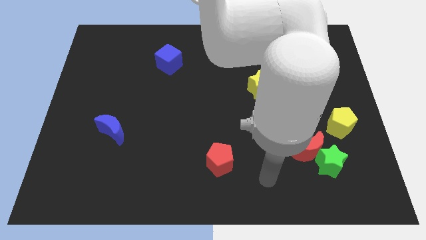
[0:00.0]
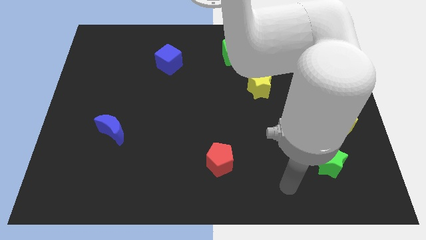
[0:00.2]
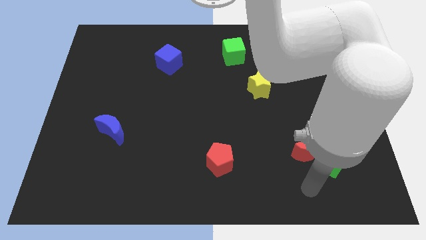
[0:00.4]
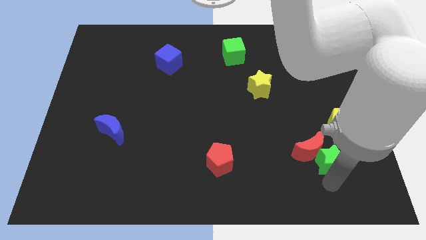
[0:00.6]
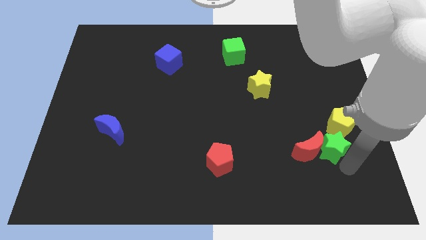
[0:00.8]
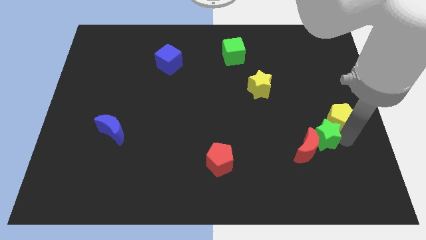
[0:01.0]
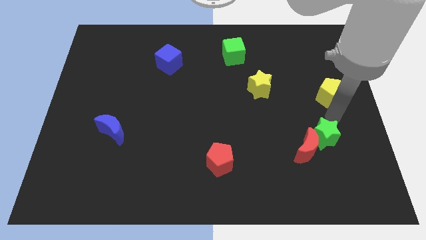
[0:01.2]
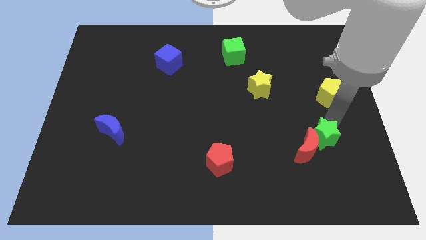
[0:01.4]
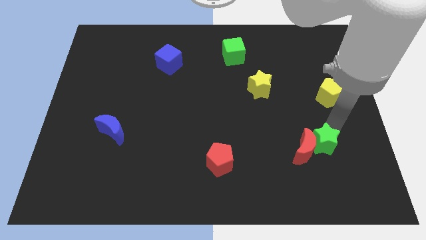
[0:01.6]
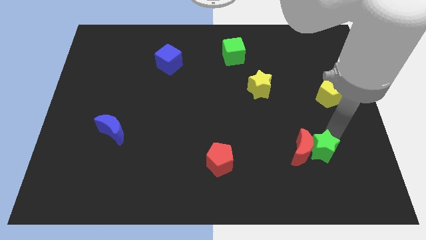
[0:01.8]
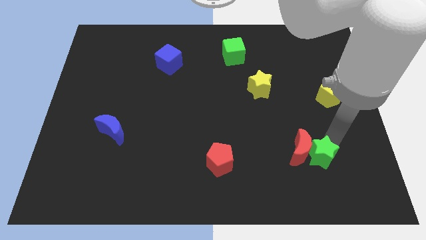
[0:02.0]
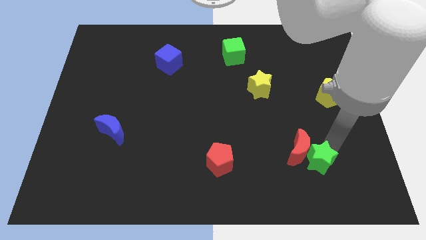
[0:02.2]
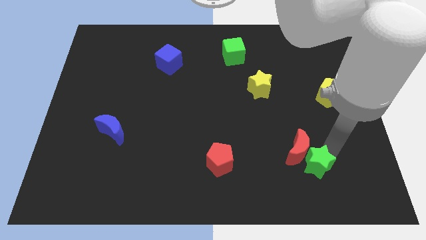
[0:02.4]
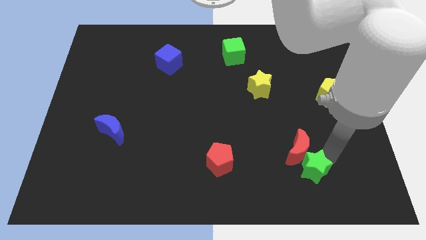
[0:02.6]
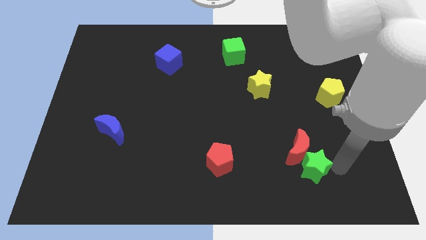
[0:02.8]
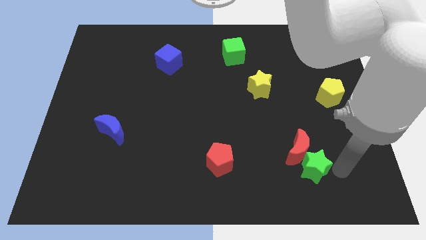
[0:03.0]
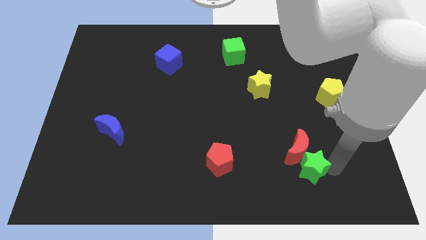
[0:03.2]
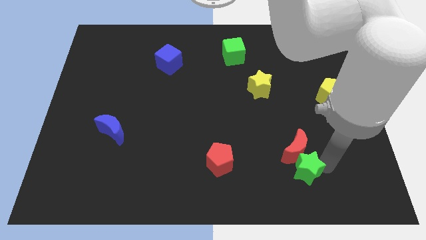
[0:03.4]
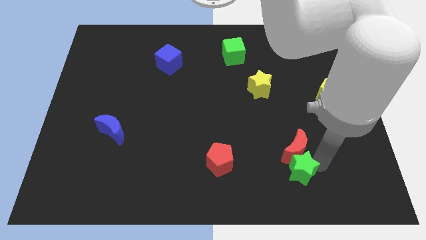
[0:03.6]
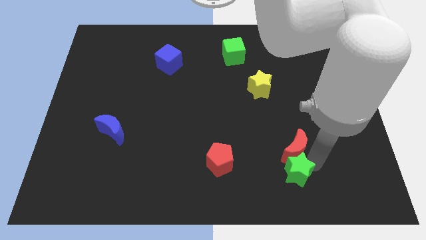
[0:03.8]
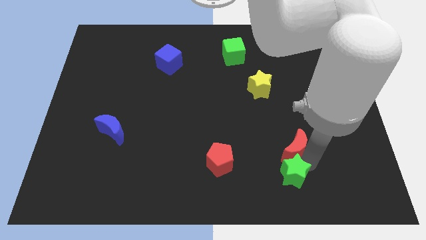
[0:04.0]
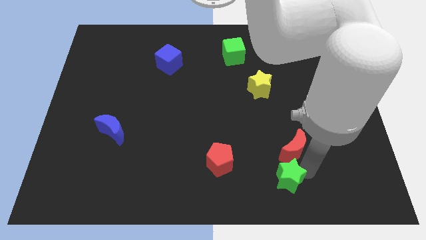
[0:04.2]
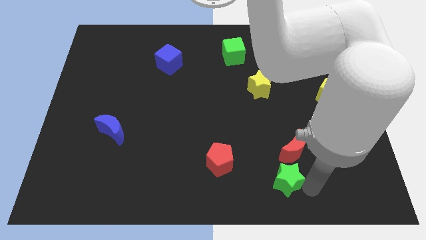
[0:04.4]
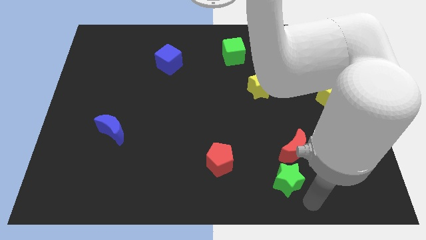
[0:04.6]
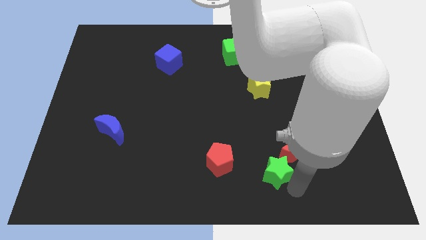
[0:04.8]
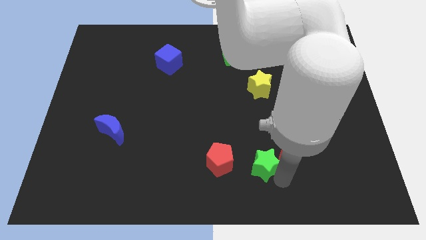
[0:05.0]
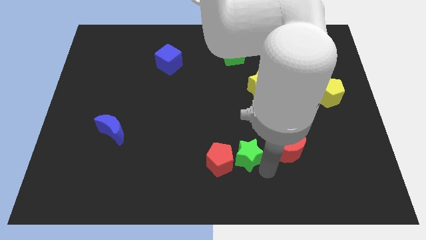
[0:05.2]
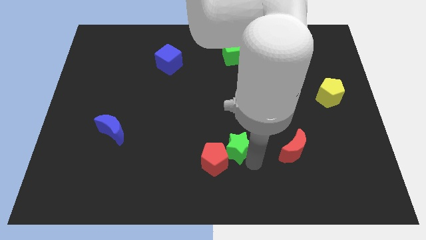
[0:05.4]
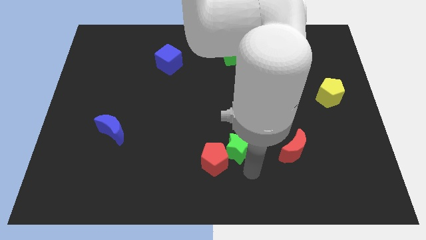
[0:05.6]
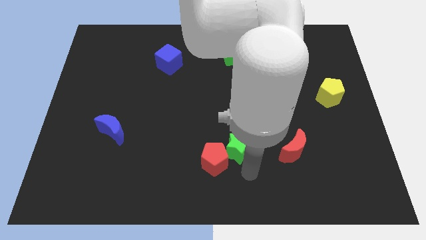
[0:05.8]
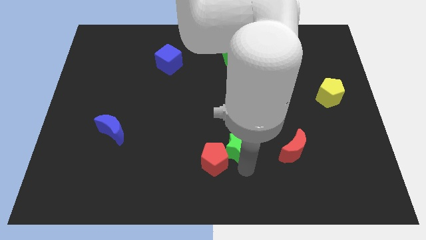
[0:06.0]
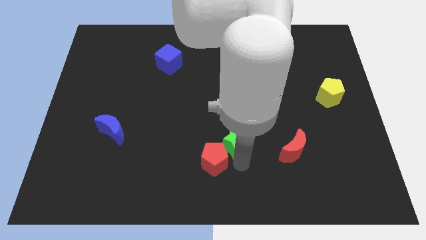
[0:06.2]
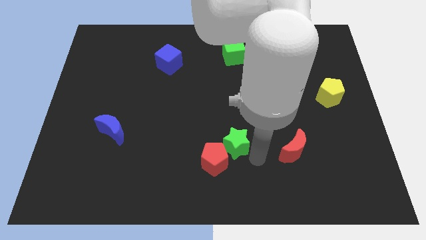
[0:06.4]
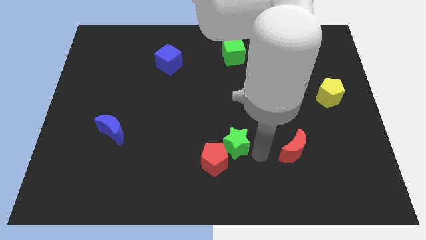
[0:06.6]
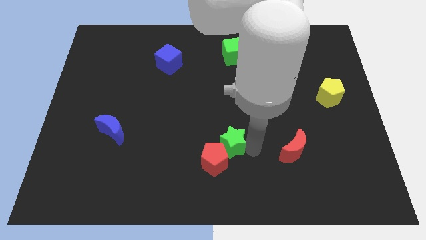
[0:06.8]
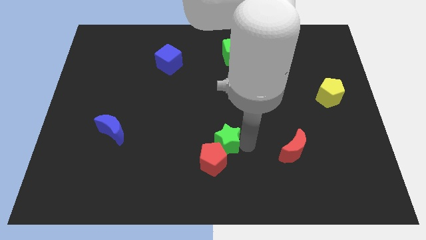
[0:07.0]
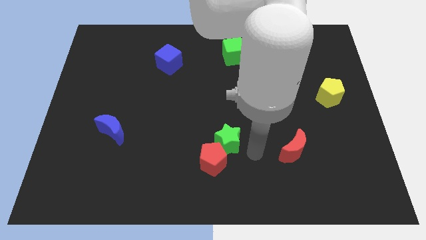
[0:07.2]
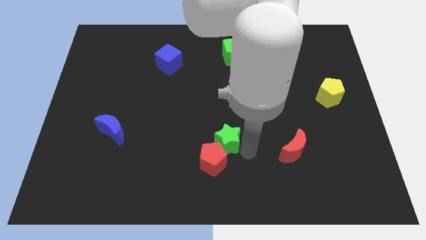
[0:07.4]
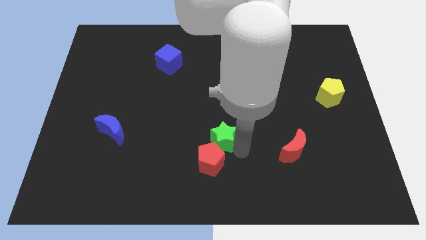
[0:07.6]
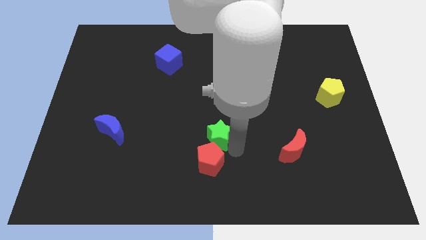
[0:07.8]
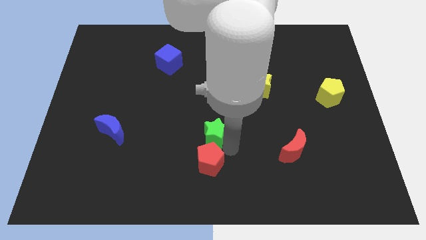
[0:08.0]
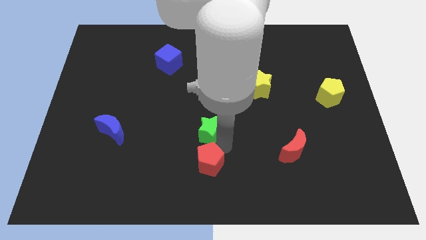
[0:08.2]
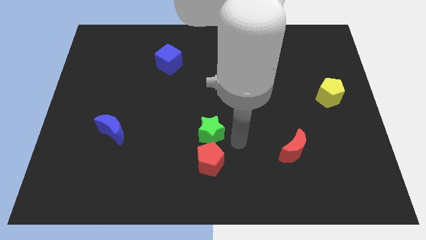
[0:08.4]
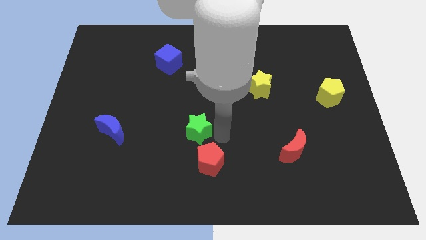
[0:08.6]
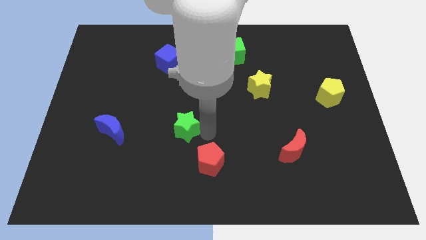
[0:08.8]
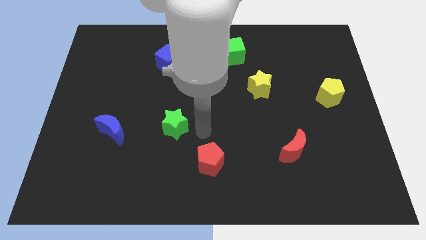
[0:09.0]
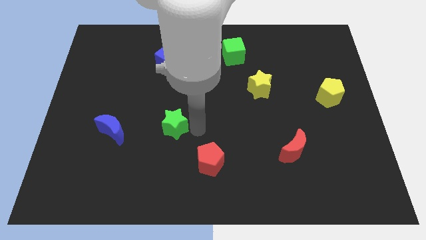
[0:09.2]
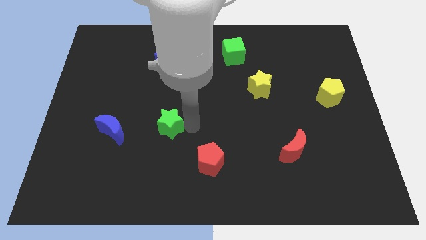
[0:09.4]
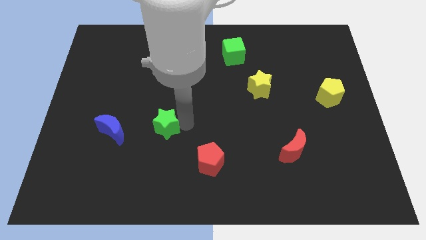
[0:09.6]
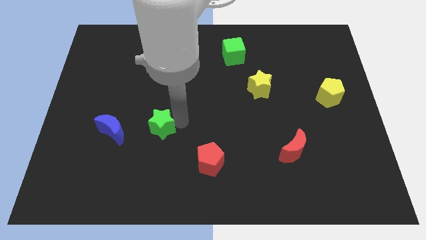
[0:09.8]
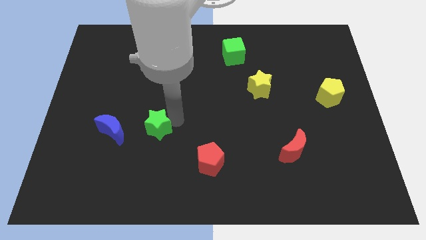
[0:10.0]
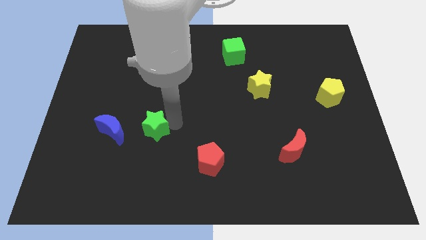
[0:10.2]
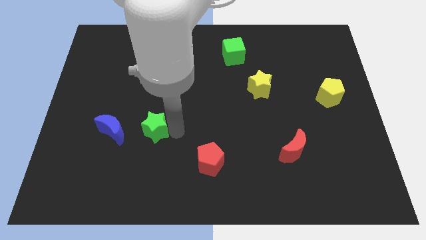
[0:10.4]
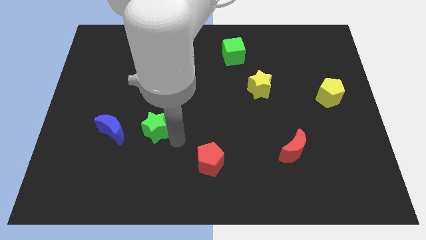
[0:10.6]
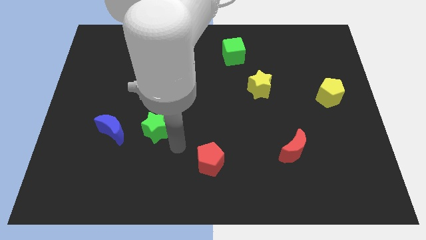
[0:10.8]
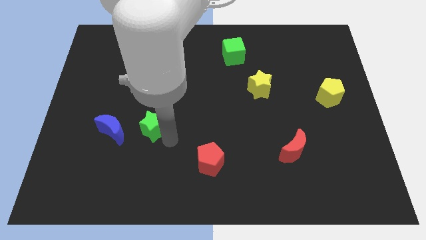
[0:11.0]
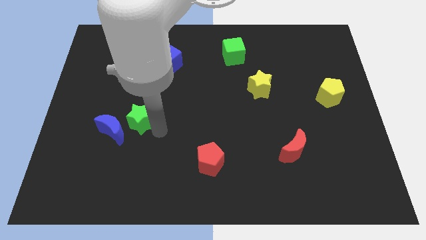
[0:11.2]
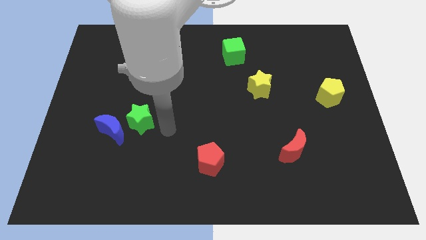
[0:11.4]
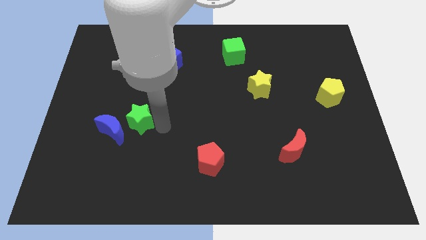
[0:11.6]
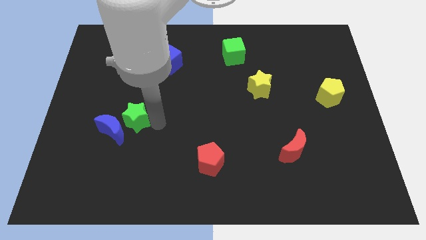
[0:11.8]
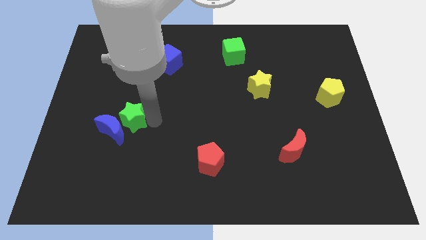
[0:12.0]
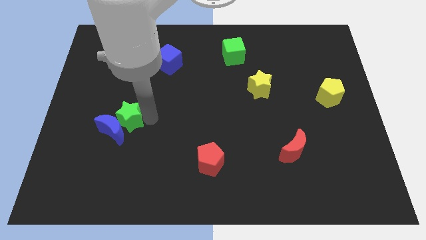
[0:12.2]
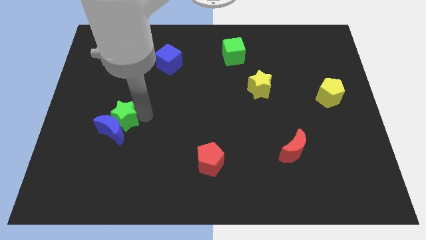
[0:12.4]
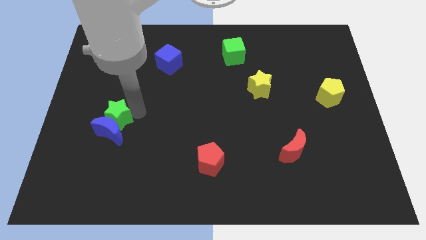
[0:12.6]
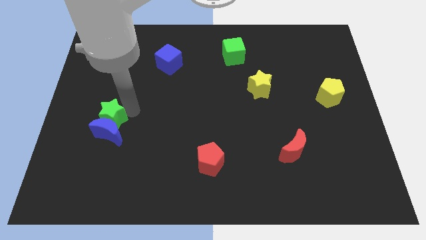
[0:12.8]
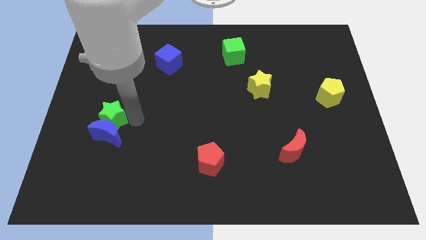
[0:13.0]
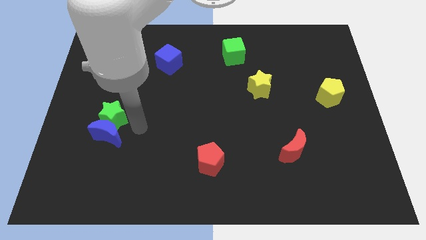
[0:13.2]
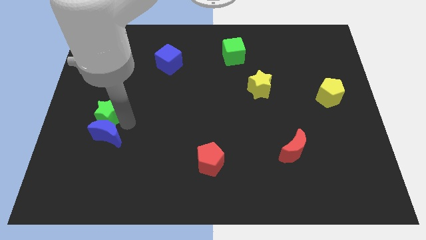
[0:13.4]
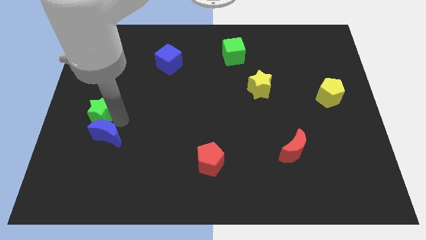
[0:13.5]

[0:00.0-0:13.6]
move the green star to the left side of the board
